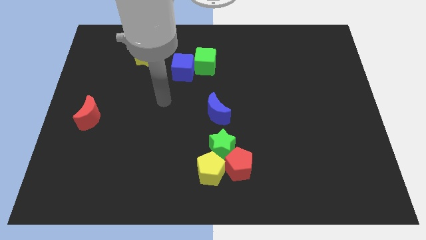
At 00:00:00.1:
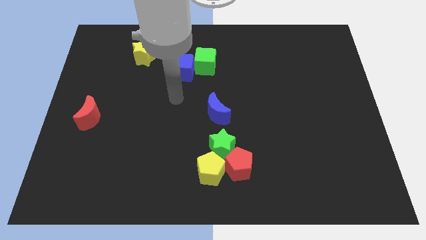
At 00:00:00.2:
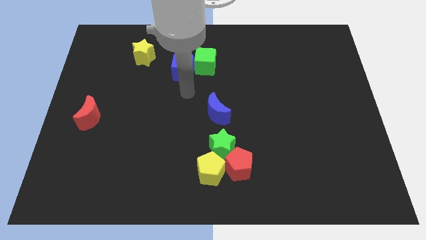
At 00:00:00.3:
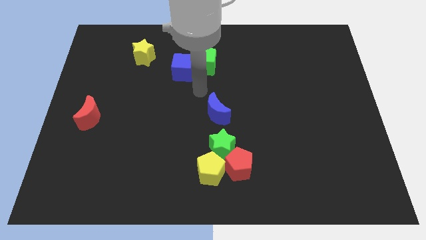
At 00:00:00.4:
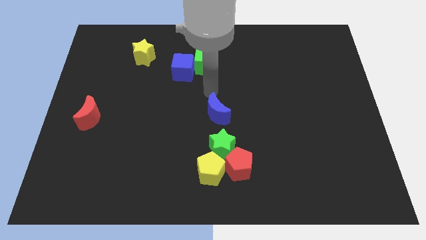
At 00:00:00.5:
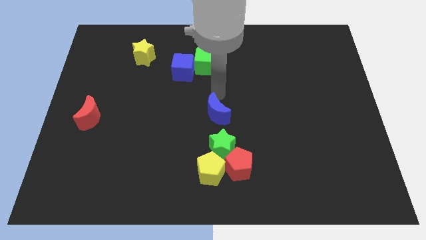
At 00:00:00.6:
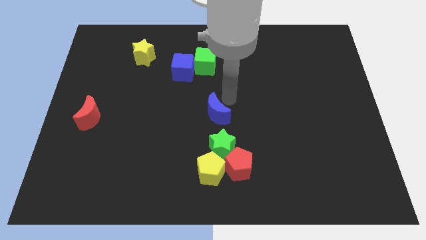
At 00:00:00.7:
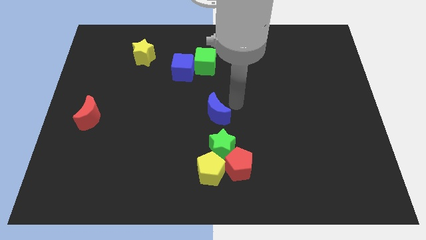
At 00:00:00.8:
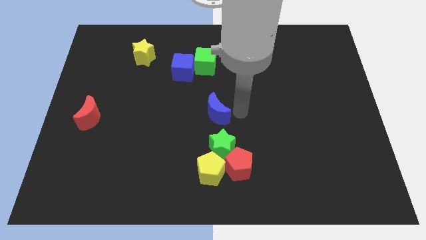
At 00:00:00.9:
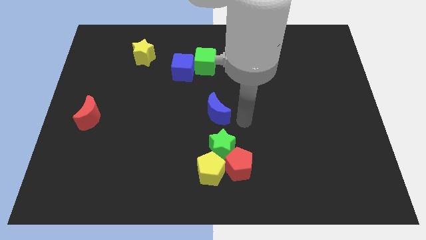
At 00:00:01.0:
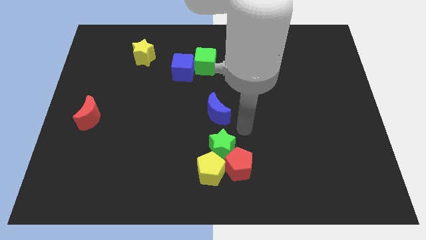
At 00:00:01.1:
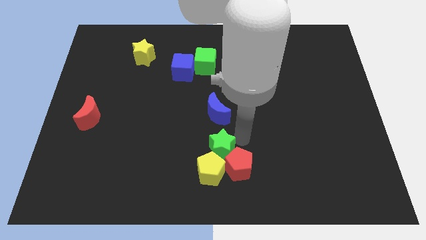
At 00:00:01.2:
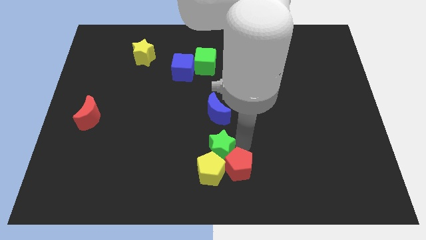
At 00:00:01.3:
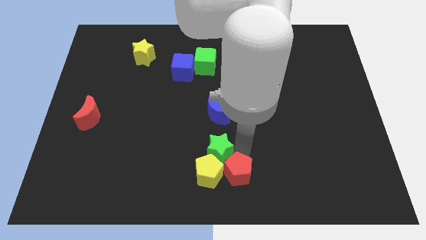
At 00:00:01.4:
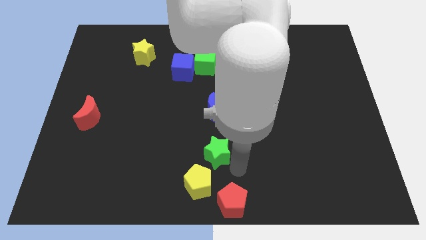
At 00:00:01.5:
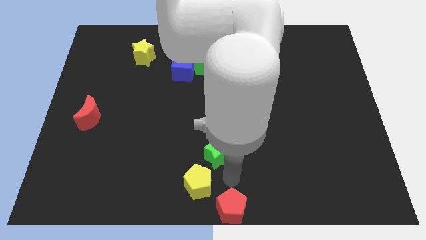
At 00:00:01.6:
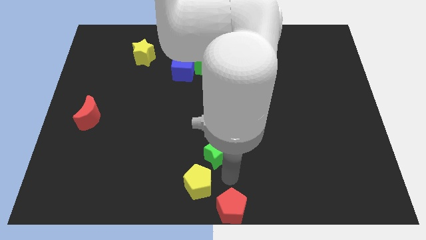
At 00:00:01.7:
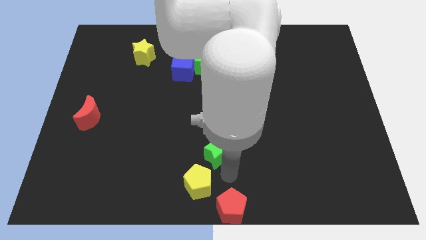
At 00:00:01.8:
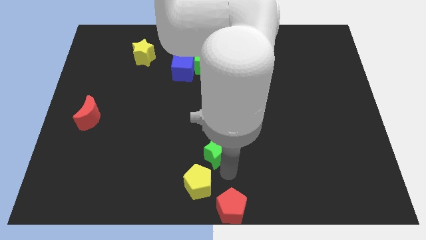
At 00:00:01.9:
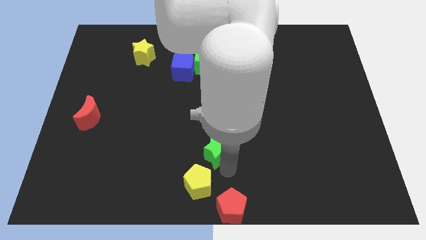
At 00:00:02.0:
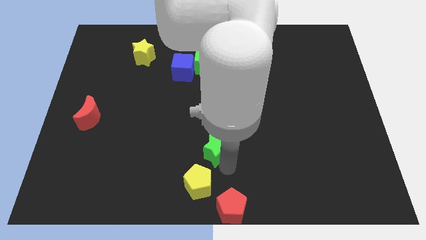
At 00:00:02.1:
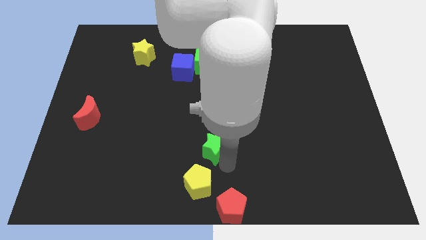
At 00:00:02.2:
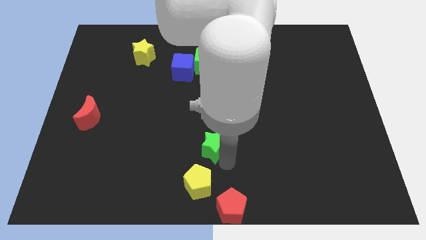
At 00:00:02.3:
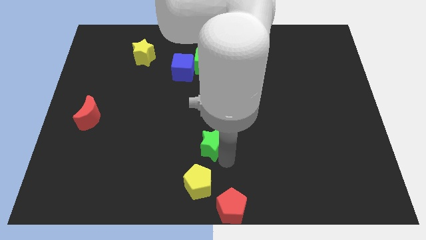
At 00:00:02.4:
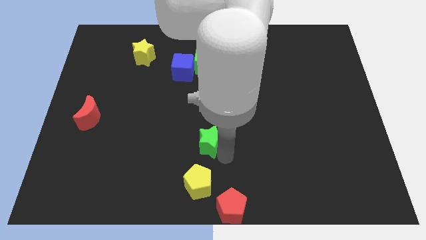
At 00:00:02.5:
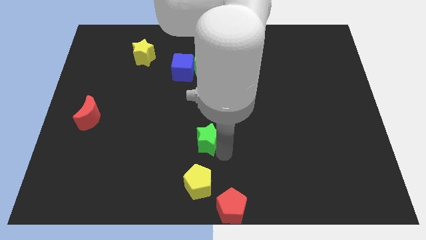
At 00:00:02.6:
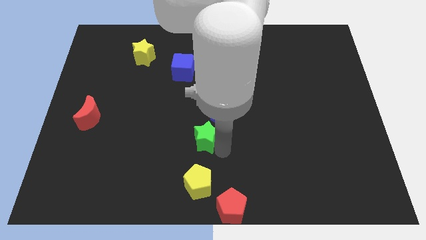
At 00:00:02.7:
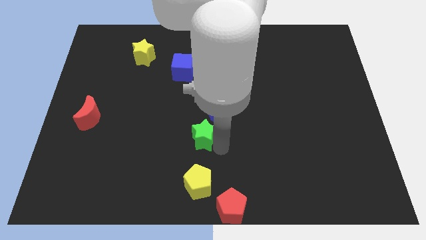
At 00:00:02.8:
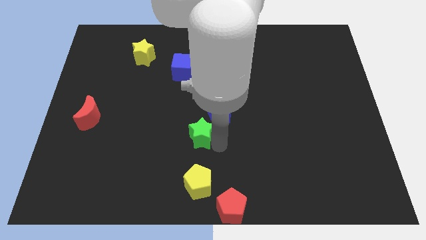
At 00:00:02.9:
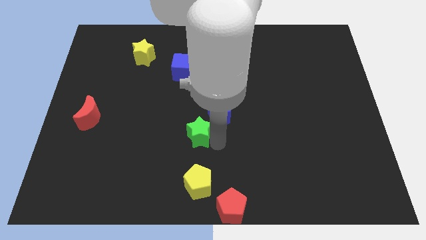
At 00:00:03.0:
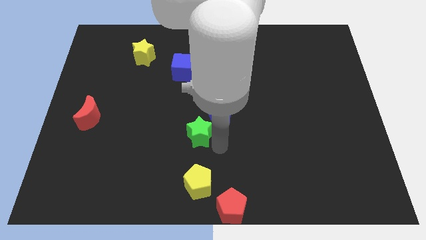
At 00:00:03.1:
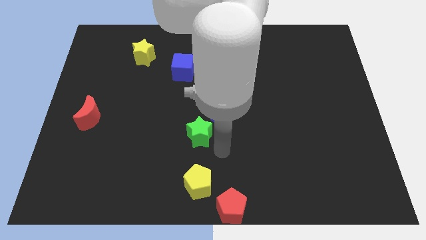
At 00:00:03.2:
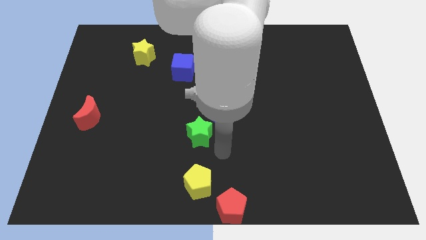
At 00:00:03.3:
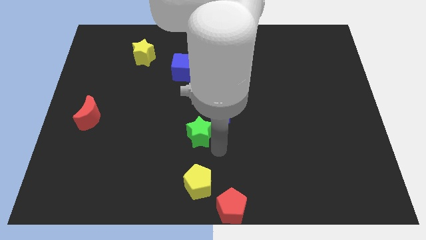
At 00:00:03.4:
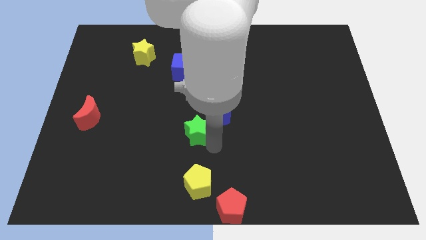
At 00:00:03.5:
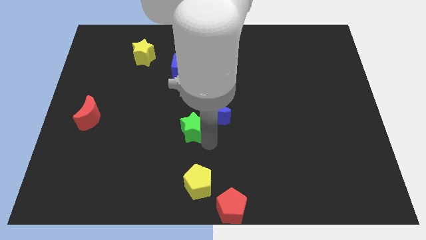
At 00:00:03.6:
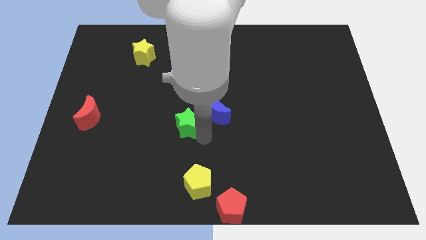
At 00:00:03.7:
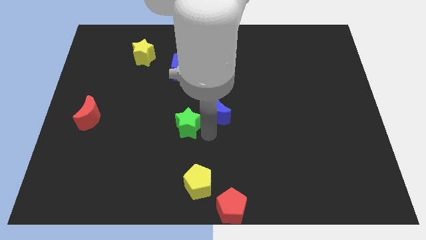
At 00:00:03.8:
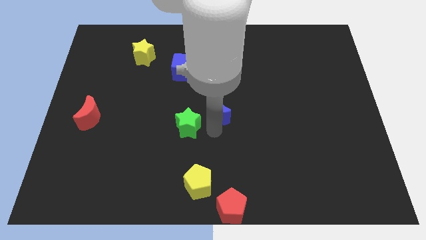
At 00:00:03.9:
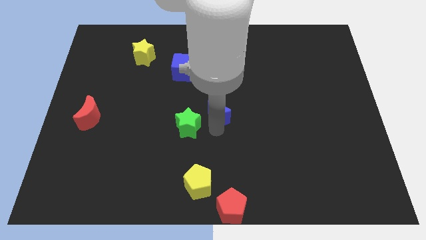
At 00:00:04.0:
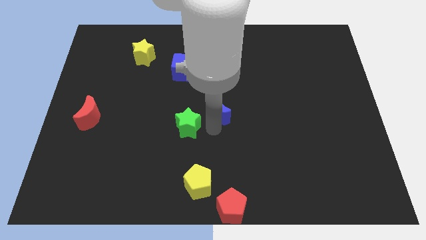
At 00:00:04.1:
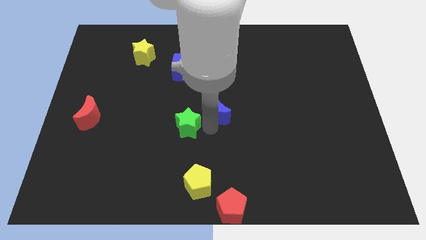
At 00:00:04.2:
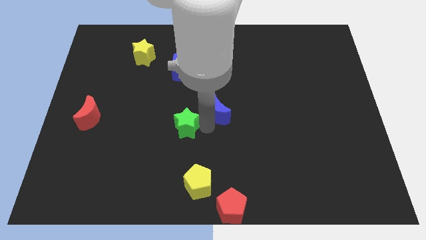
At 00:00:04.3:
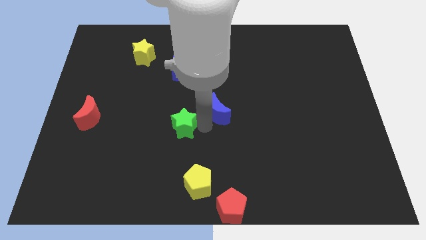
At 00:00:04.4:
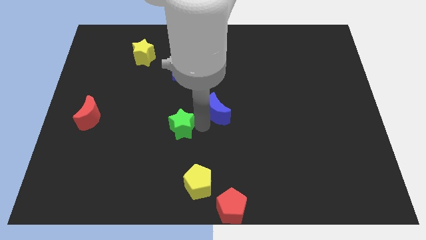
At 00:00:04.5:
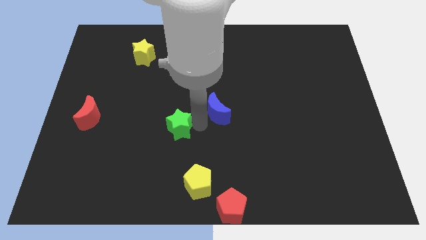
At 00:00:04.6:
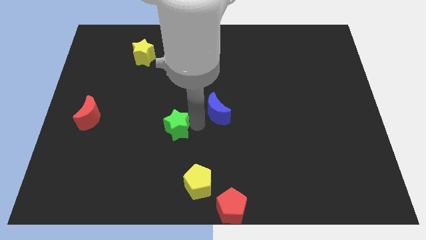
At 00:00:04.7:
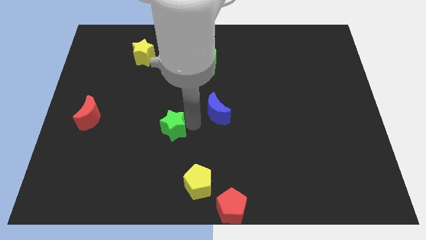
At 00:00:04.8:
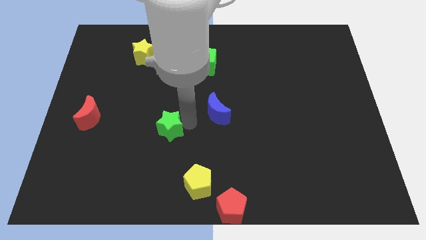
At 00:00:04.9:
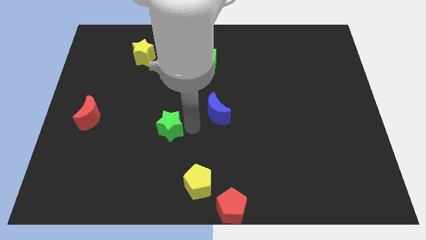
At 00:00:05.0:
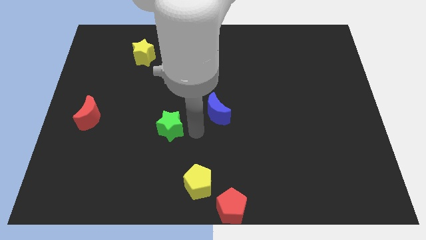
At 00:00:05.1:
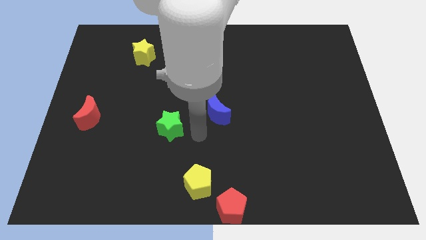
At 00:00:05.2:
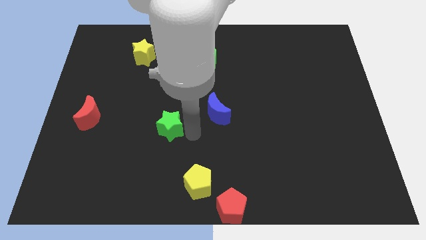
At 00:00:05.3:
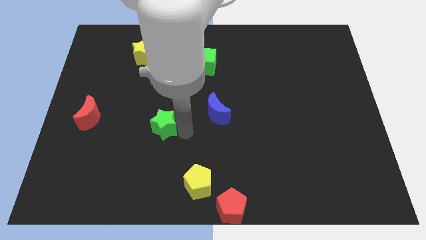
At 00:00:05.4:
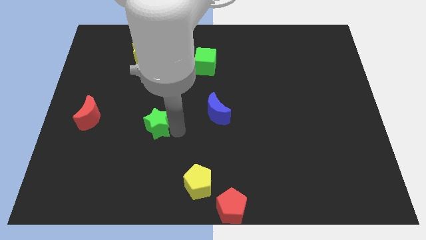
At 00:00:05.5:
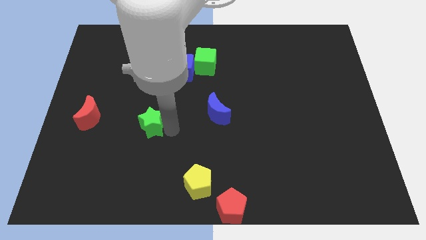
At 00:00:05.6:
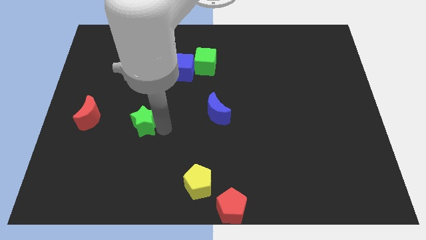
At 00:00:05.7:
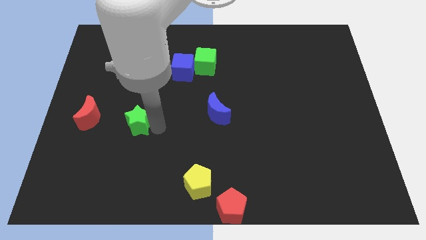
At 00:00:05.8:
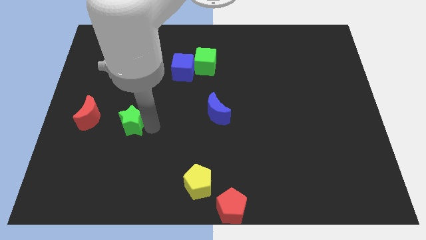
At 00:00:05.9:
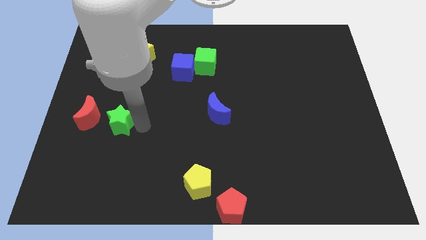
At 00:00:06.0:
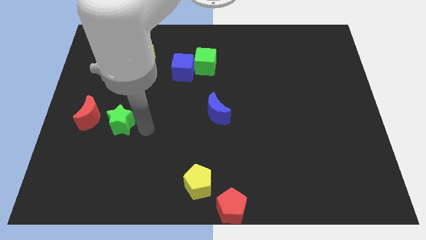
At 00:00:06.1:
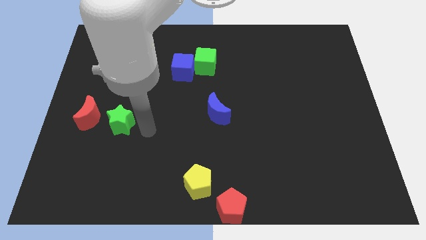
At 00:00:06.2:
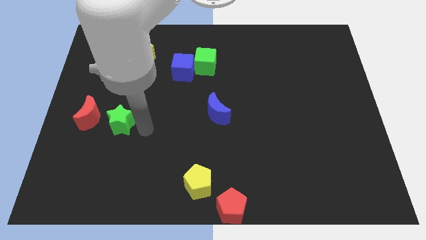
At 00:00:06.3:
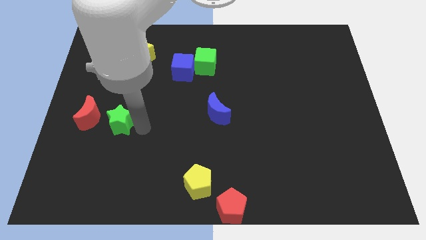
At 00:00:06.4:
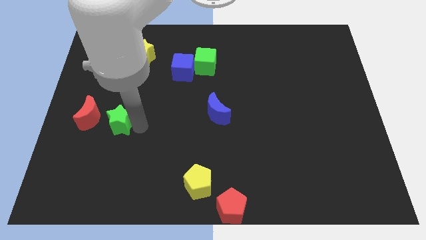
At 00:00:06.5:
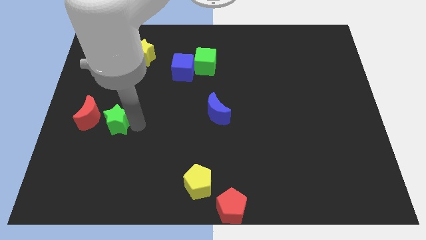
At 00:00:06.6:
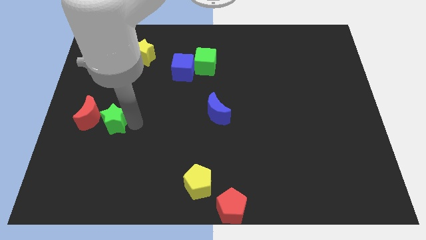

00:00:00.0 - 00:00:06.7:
move the green star close to the red moon
